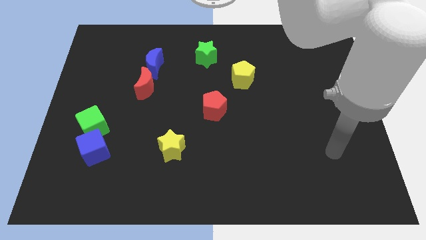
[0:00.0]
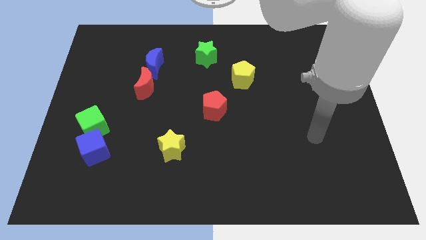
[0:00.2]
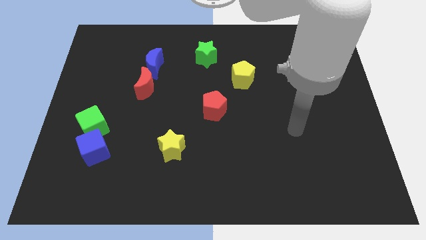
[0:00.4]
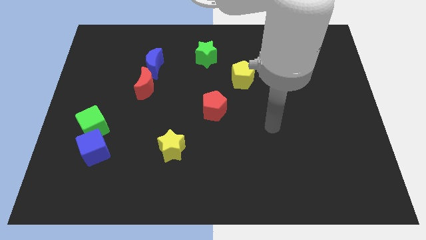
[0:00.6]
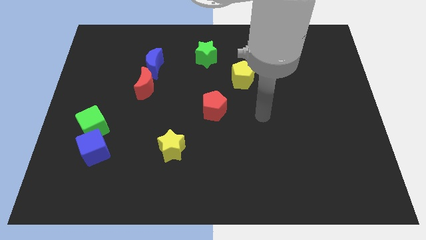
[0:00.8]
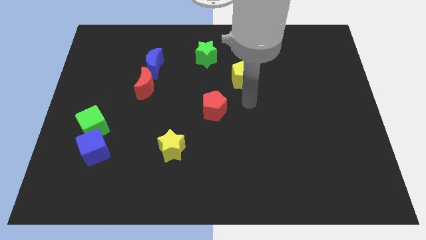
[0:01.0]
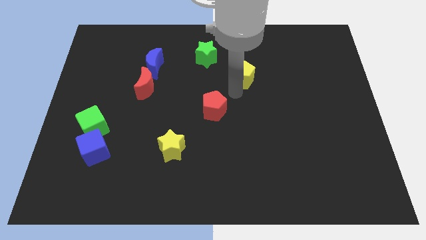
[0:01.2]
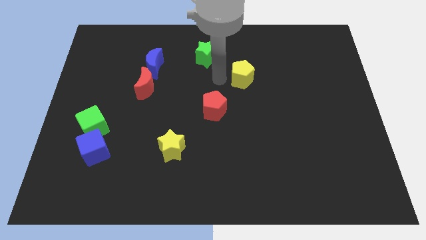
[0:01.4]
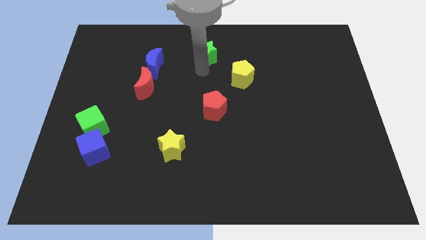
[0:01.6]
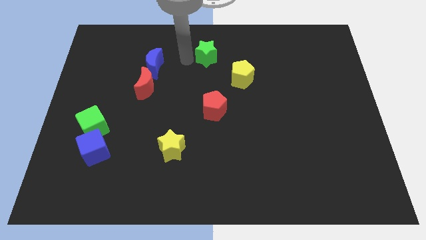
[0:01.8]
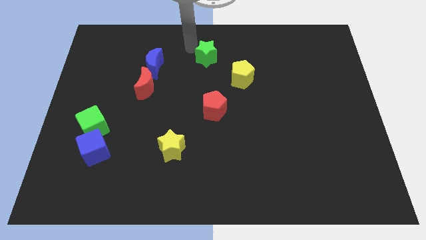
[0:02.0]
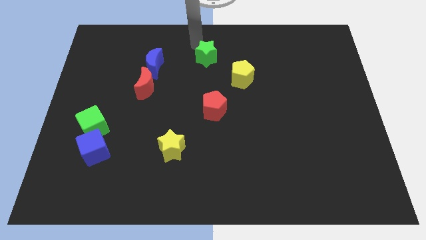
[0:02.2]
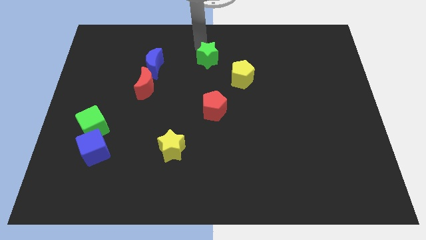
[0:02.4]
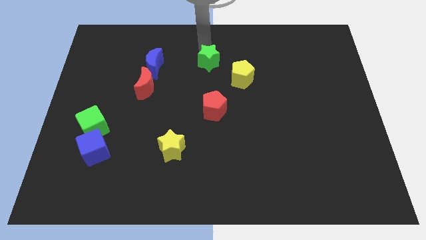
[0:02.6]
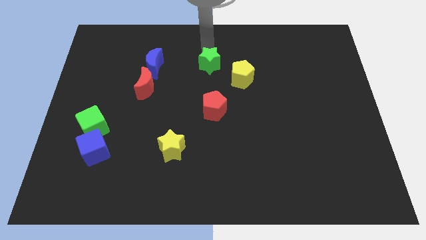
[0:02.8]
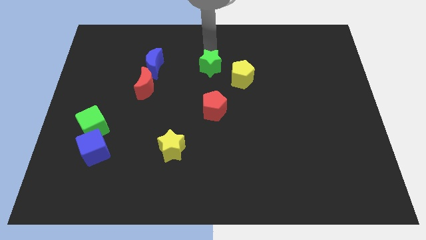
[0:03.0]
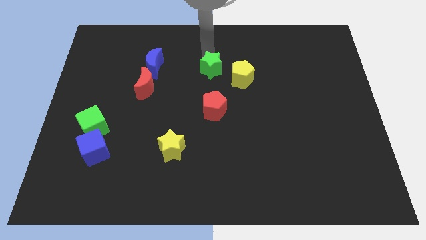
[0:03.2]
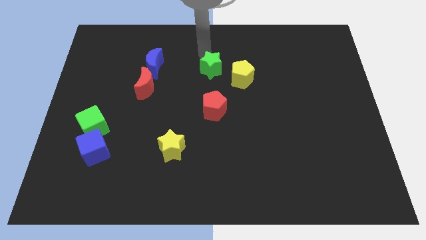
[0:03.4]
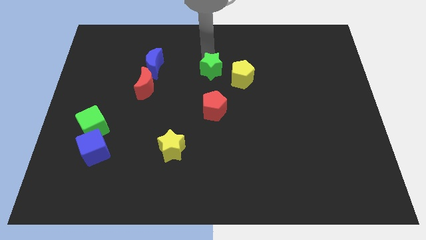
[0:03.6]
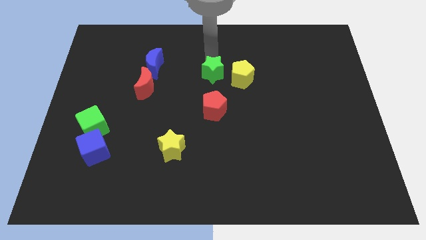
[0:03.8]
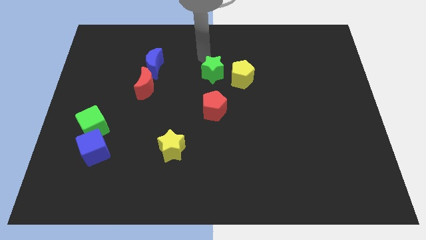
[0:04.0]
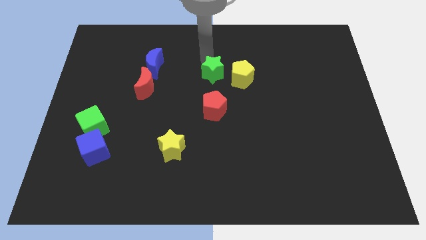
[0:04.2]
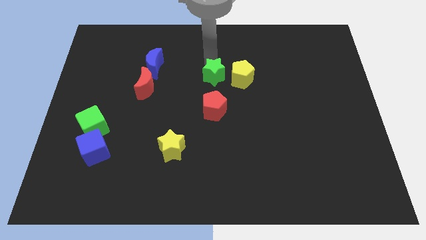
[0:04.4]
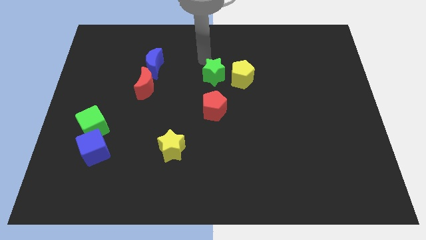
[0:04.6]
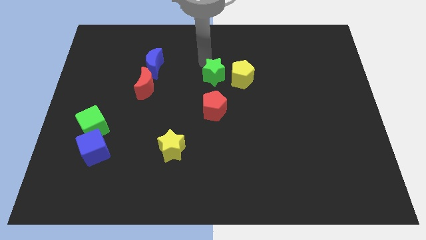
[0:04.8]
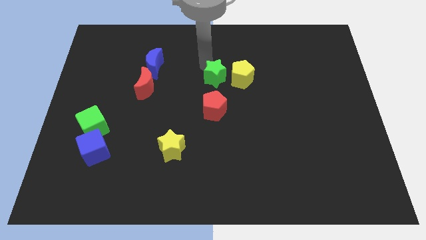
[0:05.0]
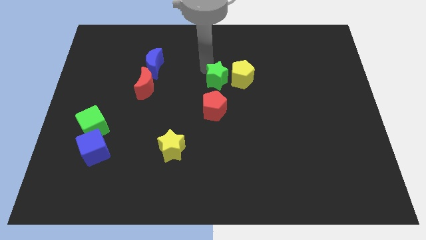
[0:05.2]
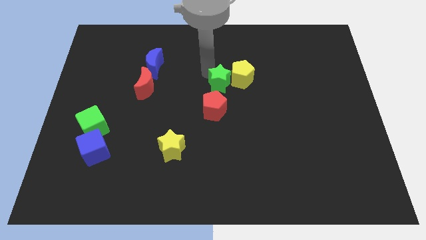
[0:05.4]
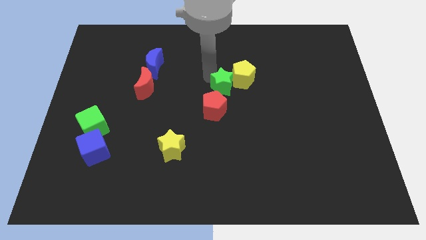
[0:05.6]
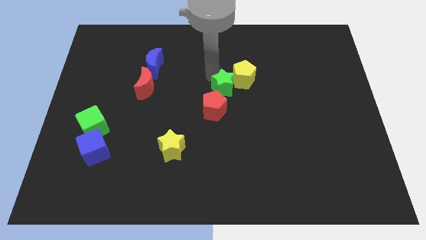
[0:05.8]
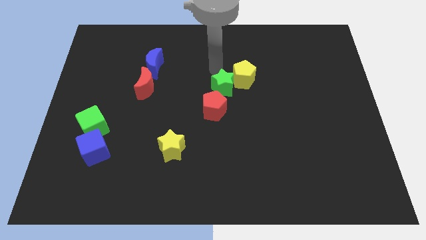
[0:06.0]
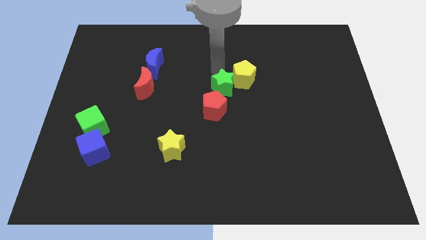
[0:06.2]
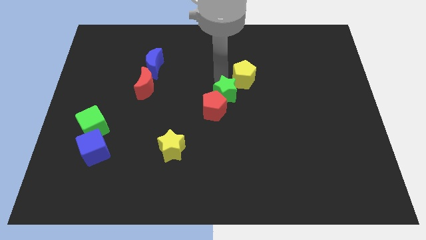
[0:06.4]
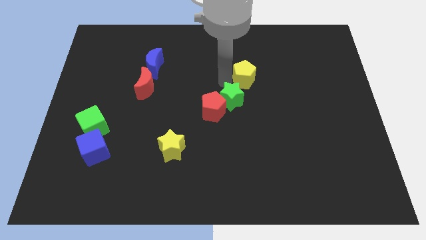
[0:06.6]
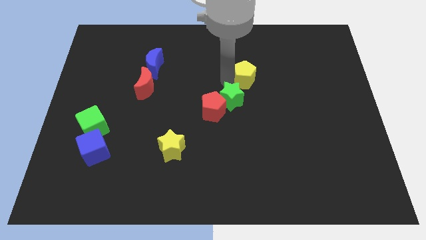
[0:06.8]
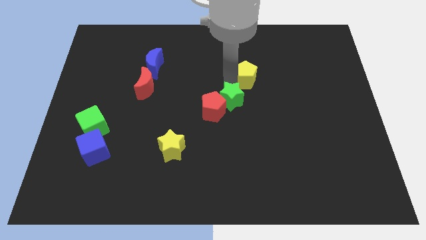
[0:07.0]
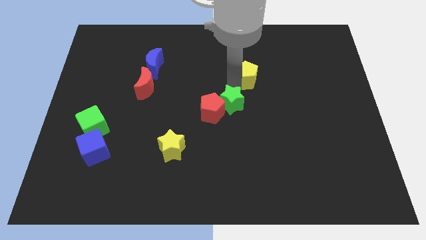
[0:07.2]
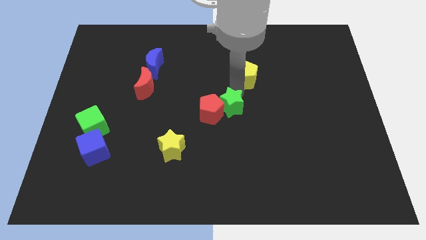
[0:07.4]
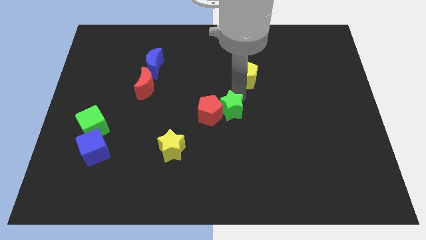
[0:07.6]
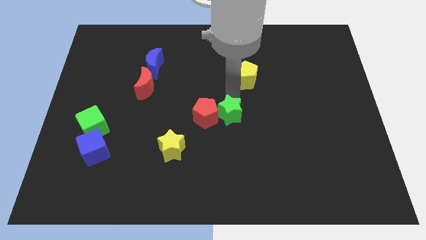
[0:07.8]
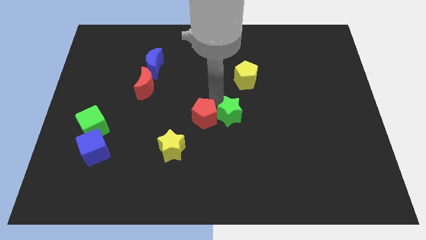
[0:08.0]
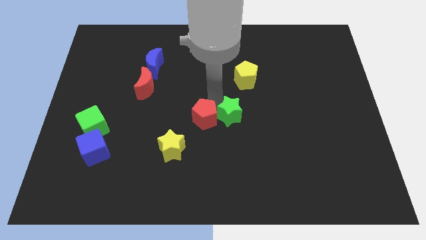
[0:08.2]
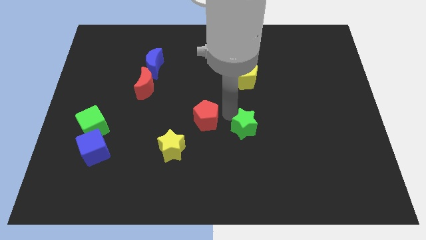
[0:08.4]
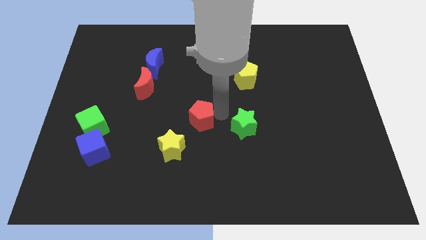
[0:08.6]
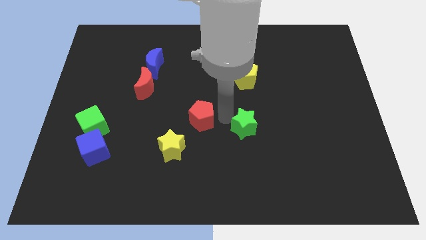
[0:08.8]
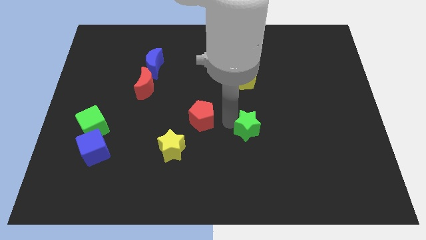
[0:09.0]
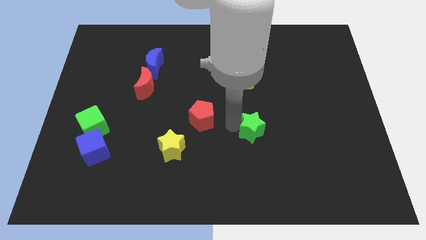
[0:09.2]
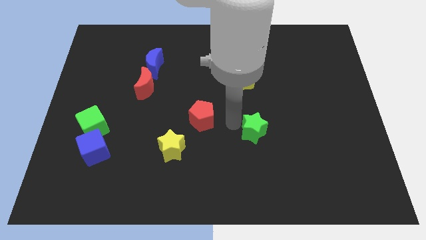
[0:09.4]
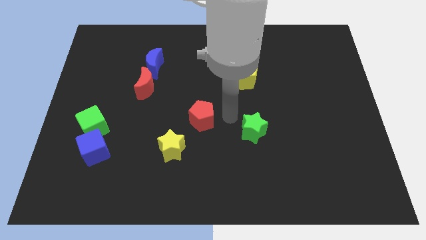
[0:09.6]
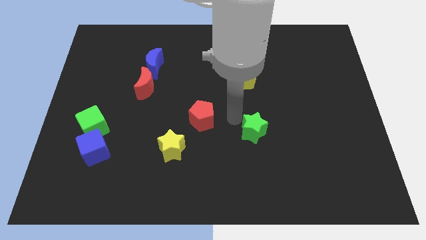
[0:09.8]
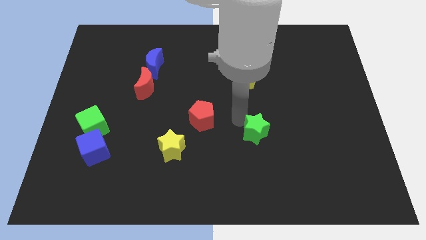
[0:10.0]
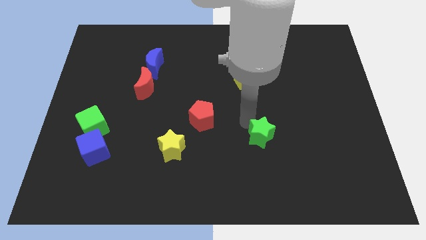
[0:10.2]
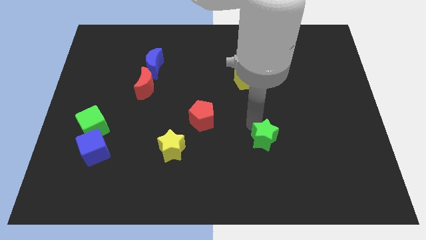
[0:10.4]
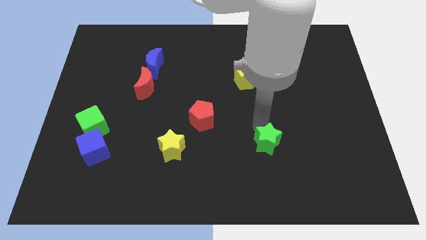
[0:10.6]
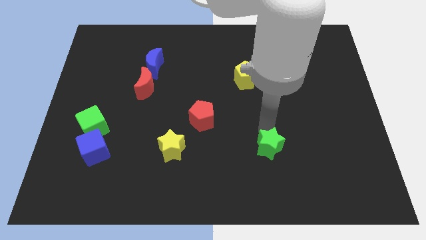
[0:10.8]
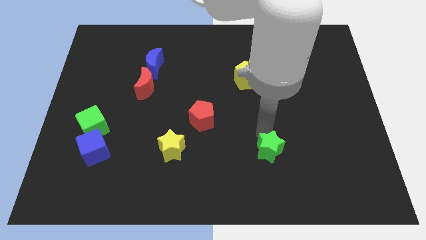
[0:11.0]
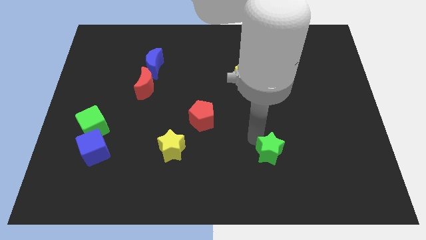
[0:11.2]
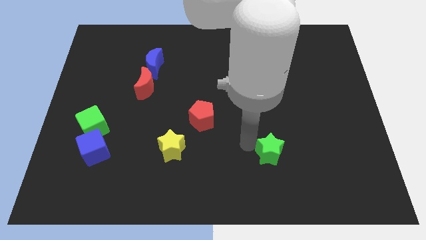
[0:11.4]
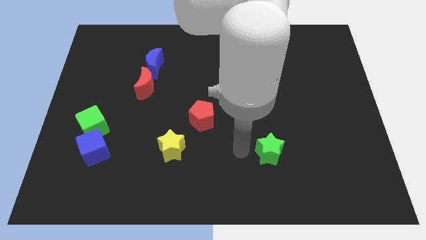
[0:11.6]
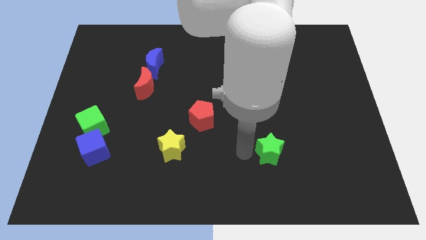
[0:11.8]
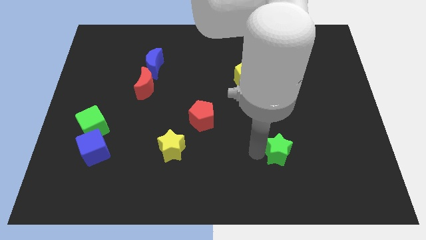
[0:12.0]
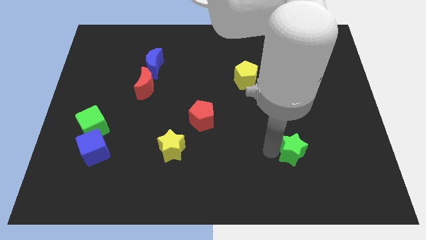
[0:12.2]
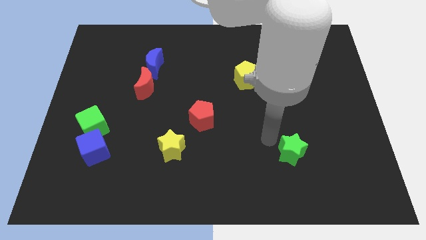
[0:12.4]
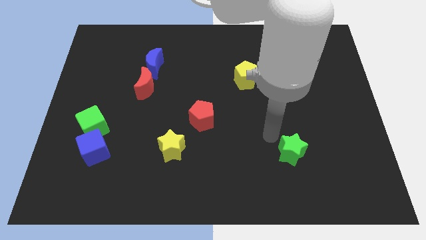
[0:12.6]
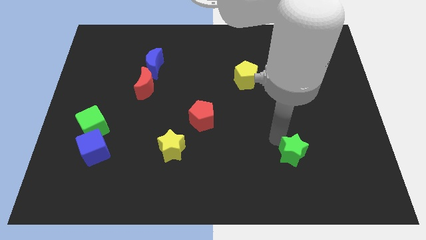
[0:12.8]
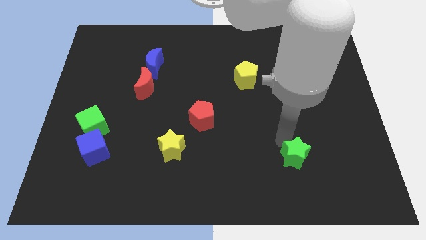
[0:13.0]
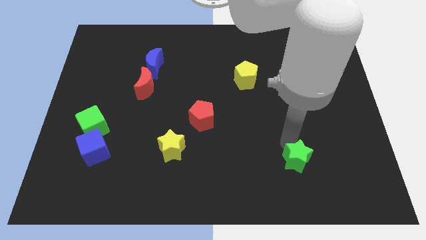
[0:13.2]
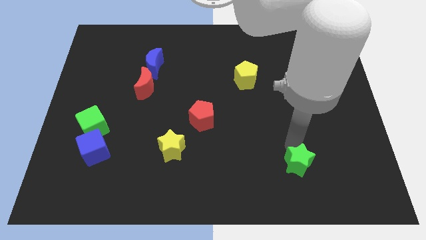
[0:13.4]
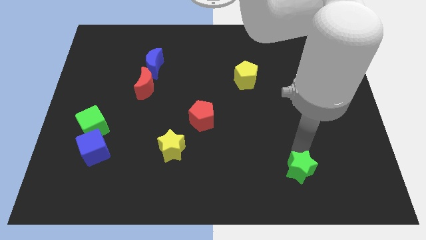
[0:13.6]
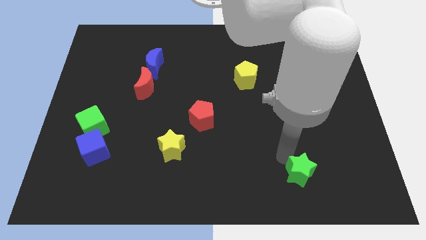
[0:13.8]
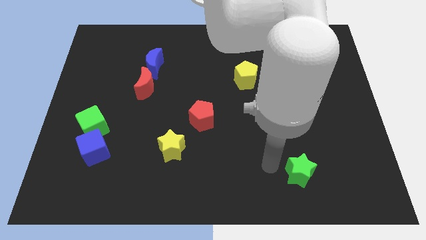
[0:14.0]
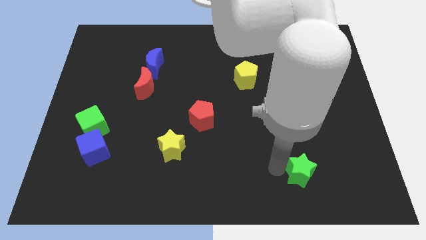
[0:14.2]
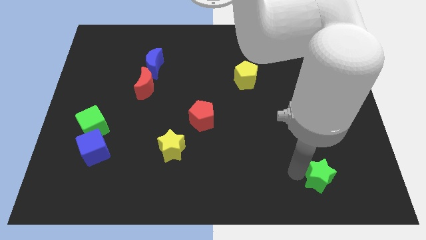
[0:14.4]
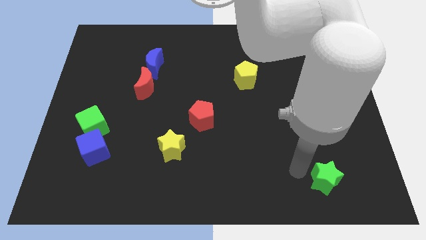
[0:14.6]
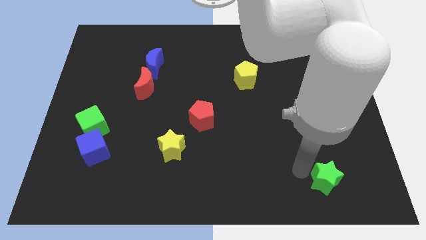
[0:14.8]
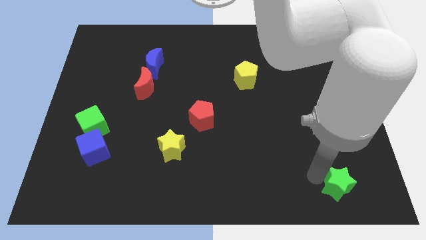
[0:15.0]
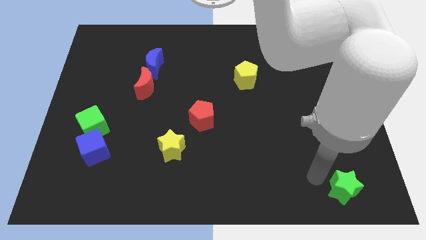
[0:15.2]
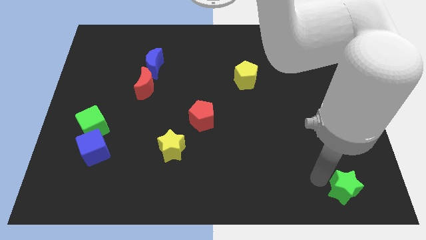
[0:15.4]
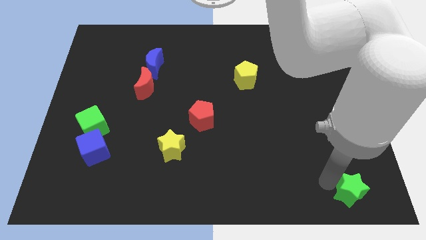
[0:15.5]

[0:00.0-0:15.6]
push the green star to the lower right corner
